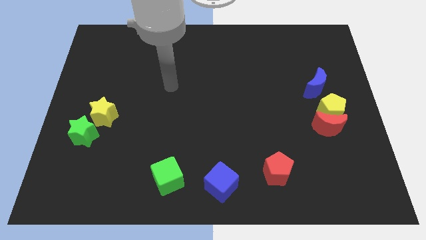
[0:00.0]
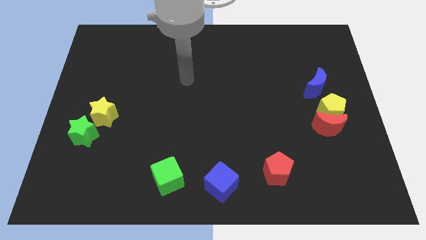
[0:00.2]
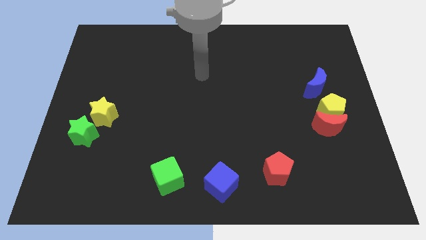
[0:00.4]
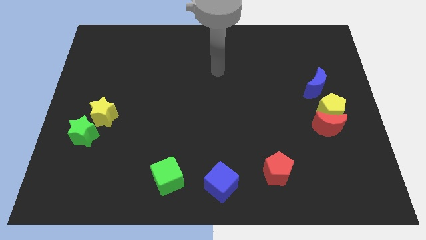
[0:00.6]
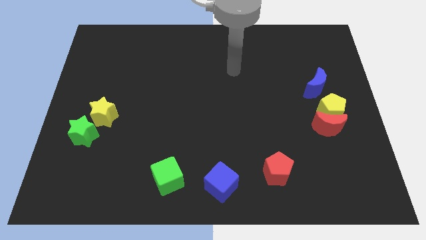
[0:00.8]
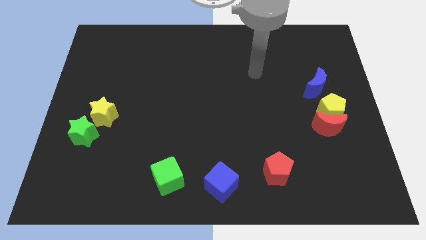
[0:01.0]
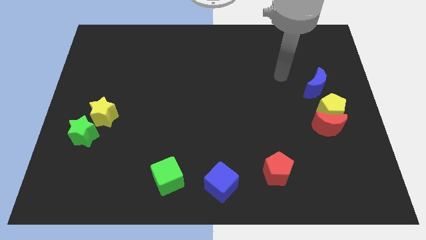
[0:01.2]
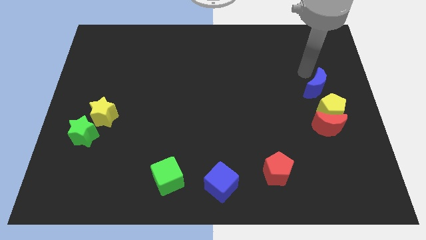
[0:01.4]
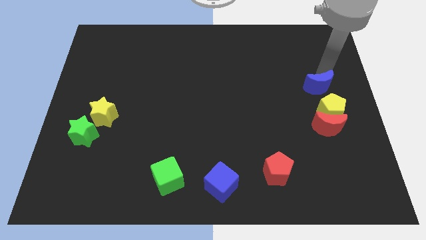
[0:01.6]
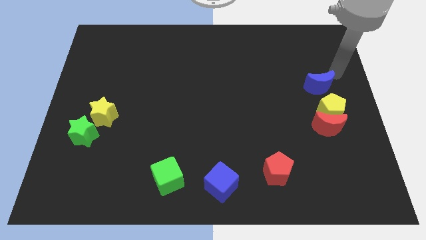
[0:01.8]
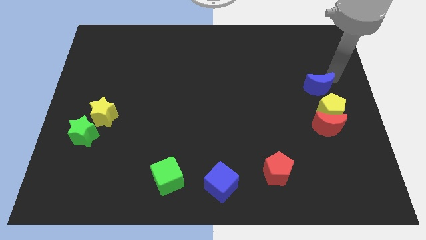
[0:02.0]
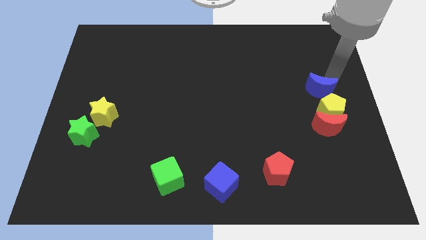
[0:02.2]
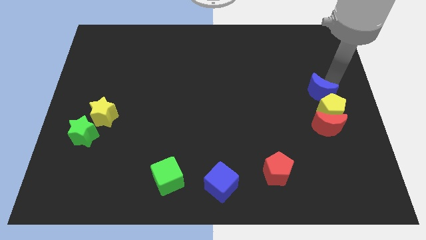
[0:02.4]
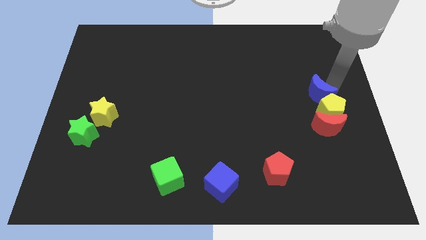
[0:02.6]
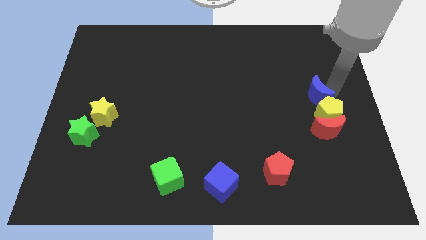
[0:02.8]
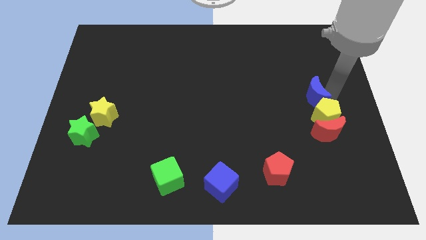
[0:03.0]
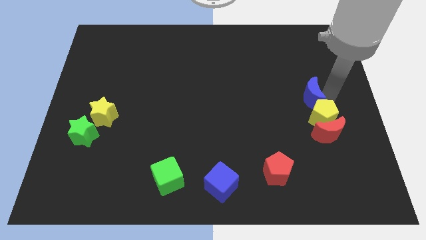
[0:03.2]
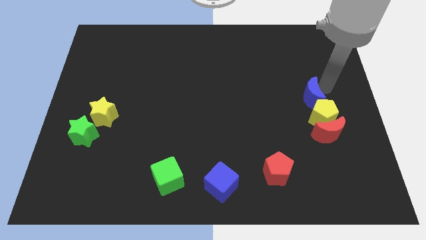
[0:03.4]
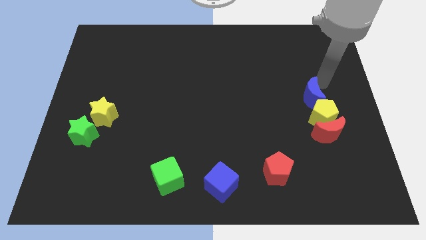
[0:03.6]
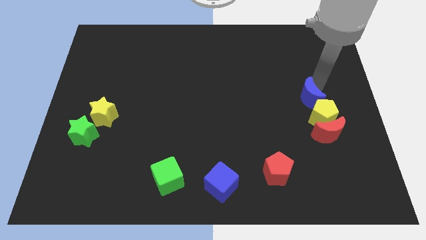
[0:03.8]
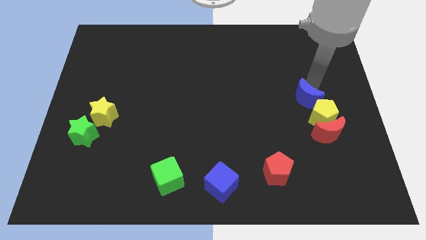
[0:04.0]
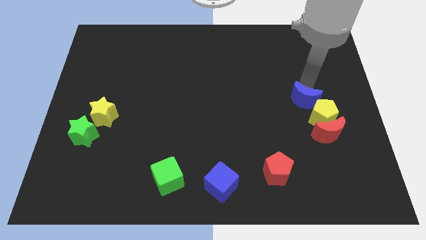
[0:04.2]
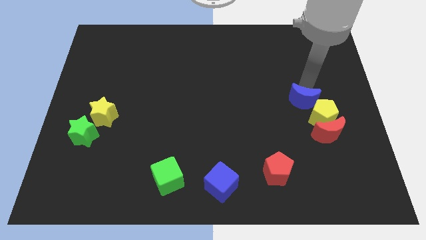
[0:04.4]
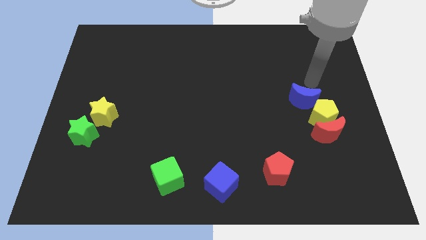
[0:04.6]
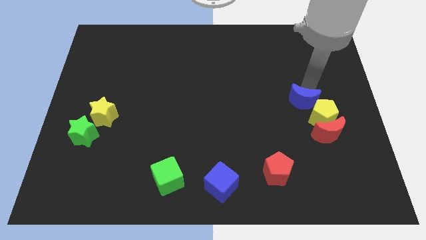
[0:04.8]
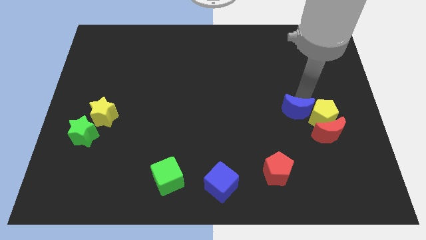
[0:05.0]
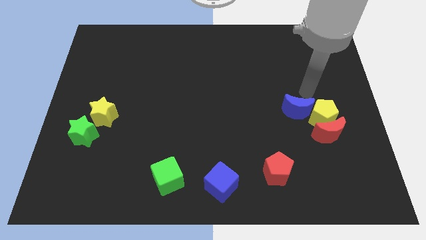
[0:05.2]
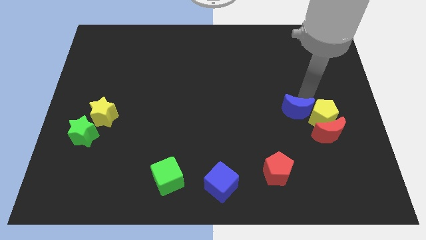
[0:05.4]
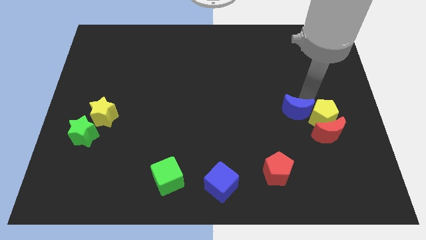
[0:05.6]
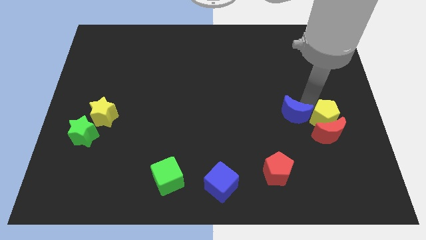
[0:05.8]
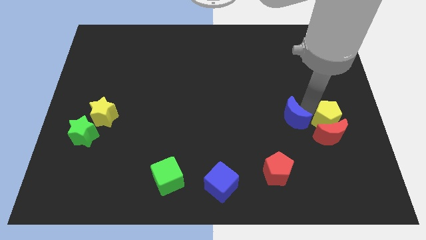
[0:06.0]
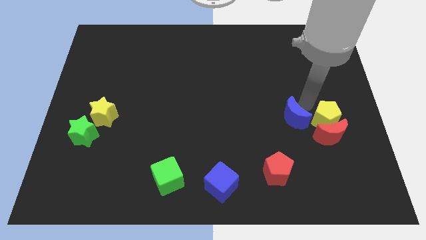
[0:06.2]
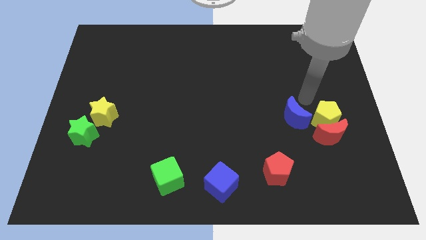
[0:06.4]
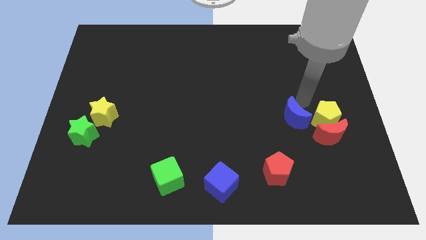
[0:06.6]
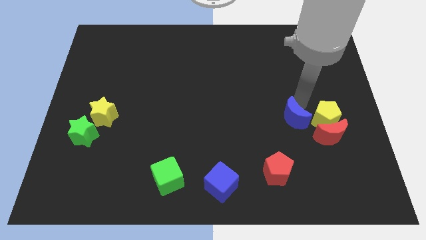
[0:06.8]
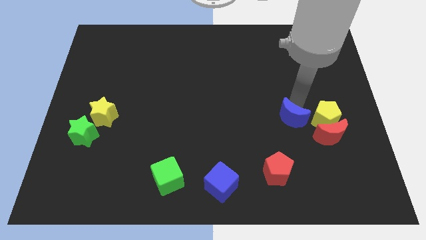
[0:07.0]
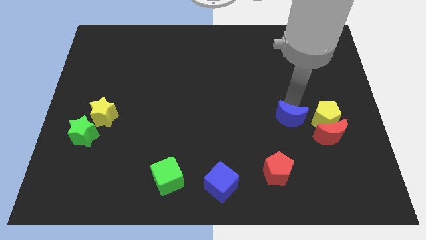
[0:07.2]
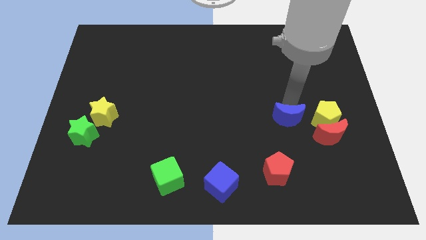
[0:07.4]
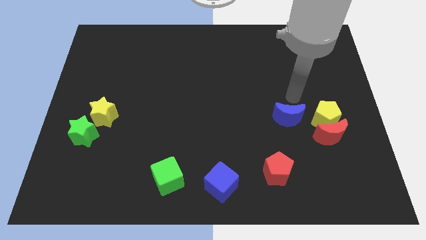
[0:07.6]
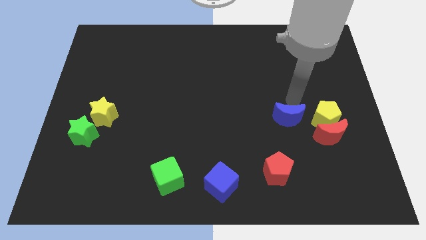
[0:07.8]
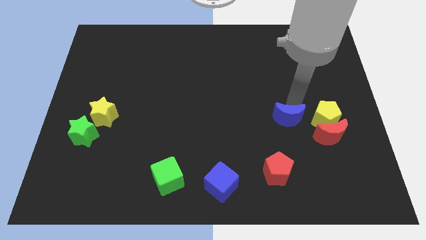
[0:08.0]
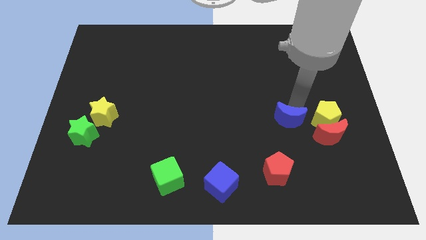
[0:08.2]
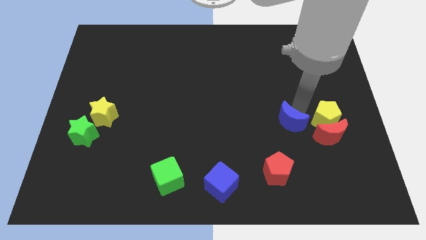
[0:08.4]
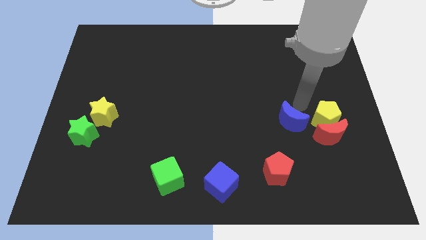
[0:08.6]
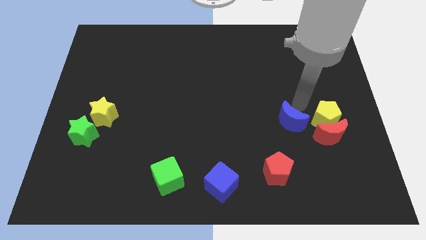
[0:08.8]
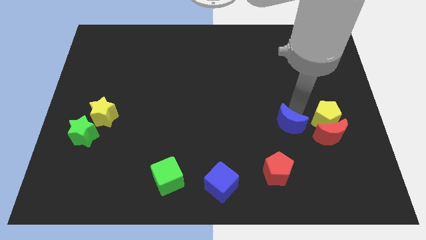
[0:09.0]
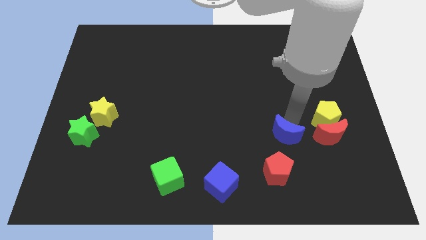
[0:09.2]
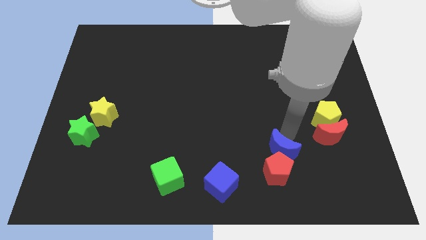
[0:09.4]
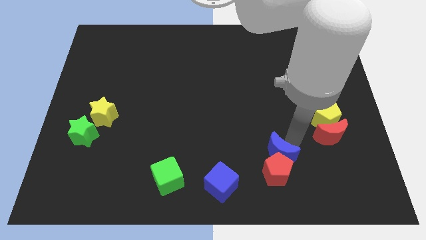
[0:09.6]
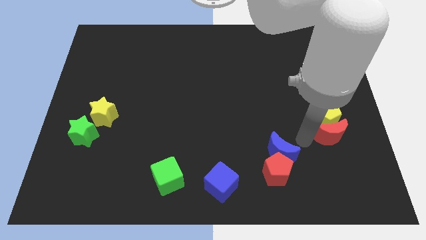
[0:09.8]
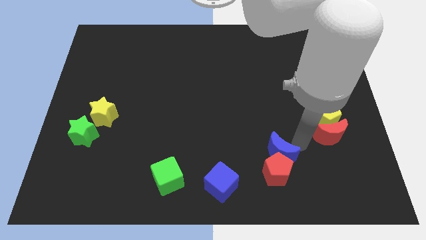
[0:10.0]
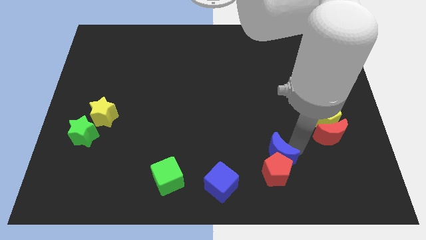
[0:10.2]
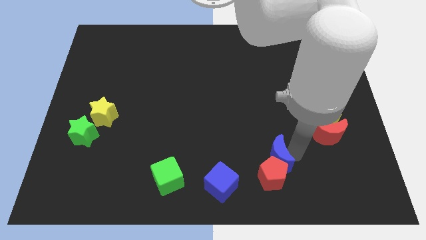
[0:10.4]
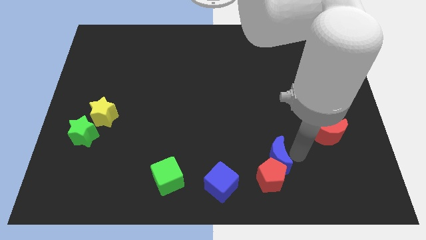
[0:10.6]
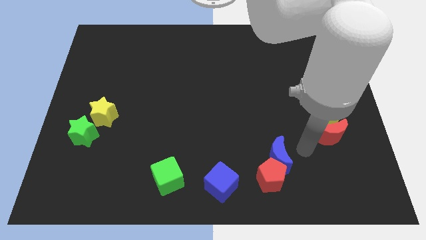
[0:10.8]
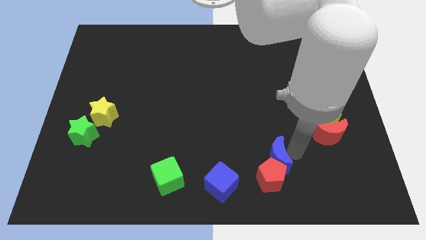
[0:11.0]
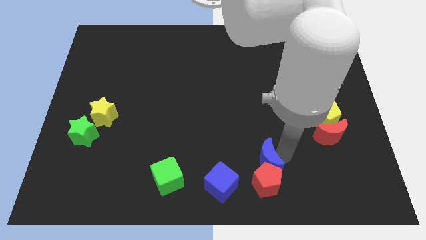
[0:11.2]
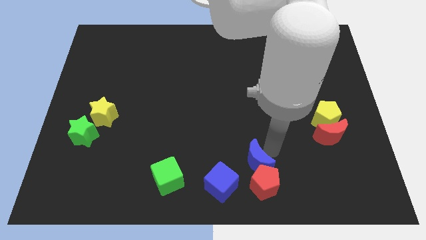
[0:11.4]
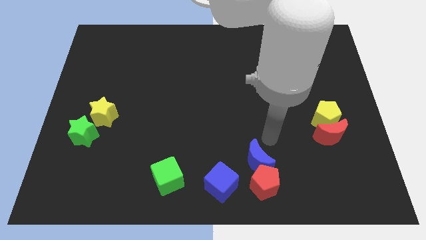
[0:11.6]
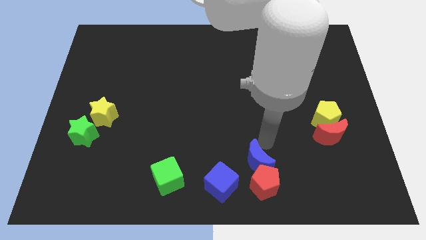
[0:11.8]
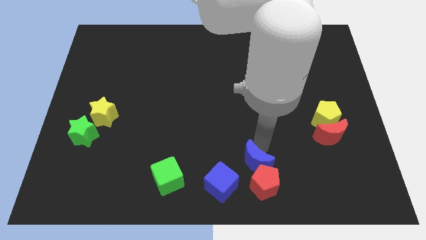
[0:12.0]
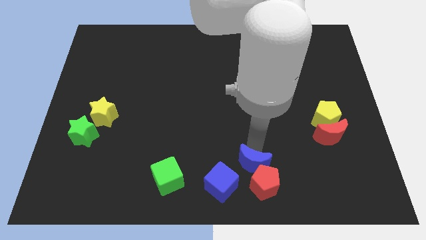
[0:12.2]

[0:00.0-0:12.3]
put the blue moon to the bottom side
